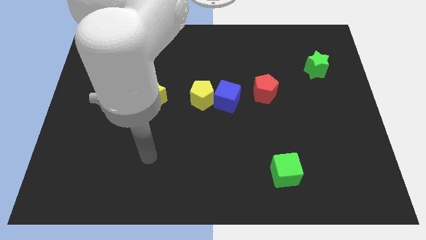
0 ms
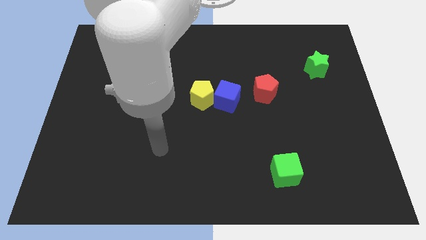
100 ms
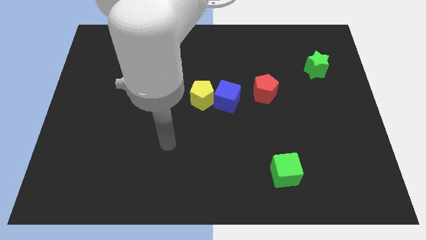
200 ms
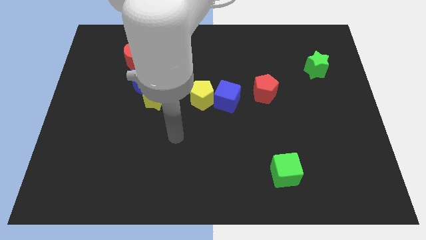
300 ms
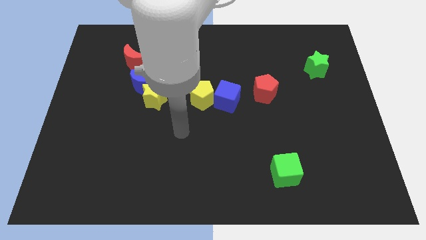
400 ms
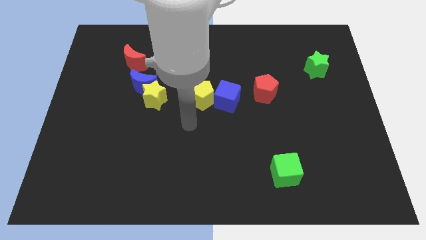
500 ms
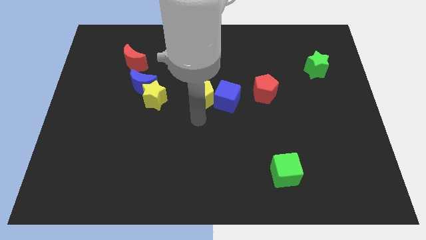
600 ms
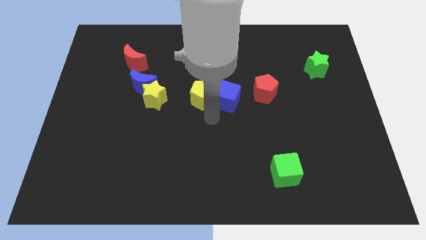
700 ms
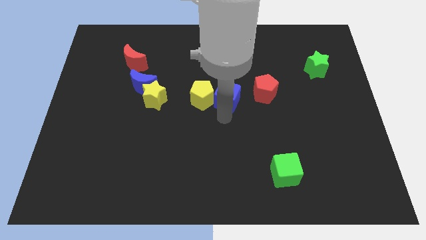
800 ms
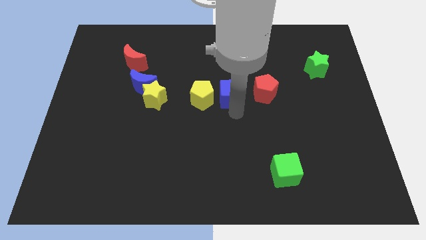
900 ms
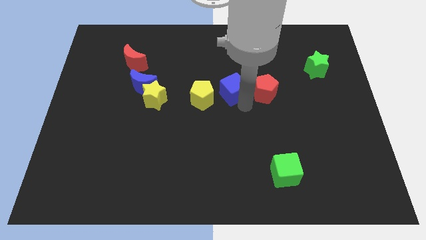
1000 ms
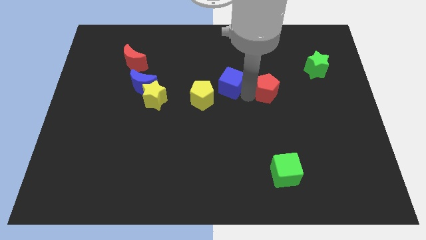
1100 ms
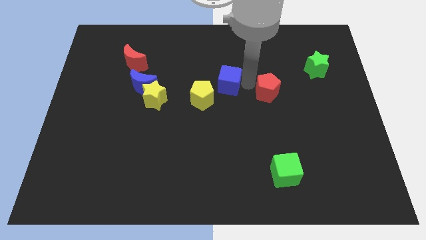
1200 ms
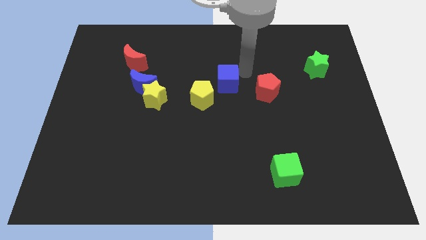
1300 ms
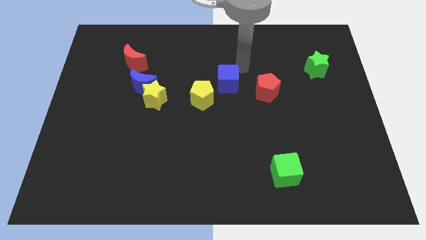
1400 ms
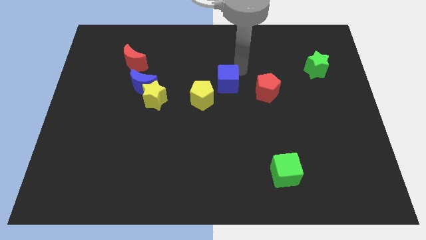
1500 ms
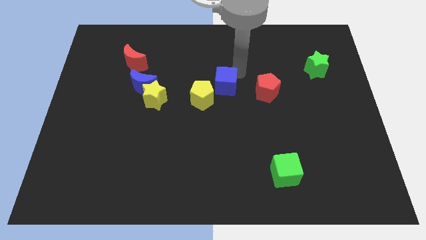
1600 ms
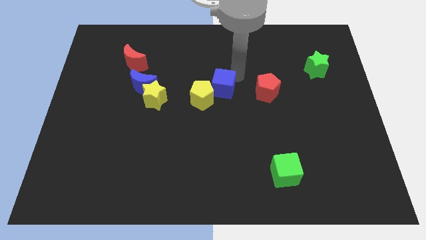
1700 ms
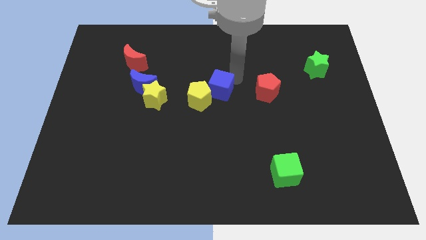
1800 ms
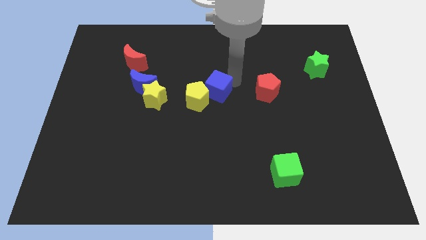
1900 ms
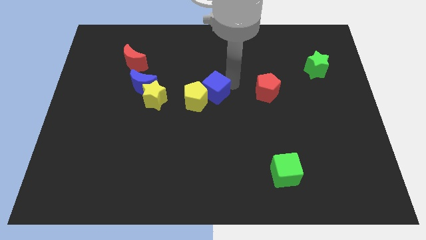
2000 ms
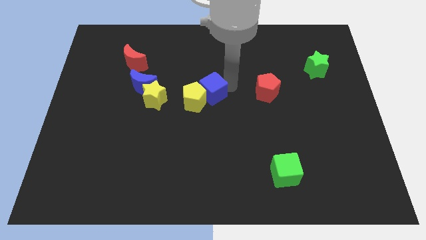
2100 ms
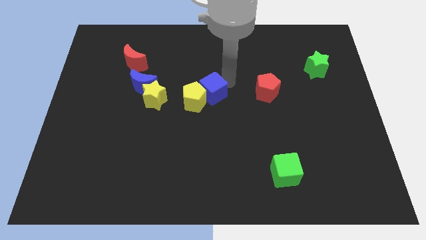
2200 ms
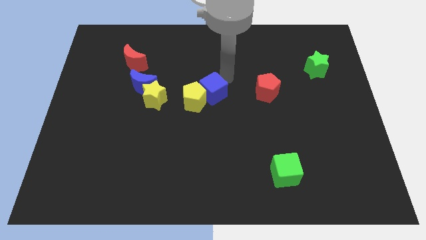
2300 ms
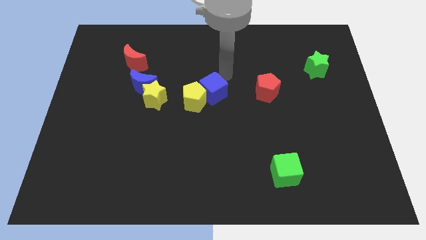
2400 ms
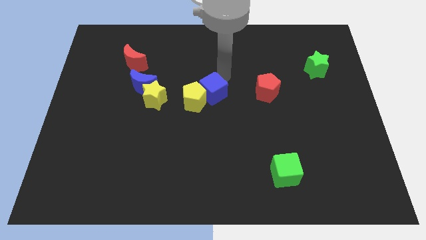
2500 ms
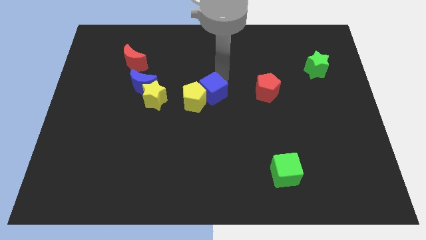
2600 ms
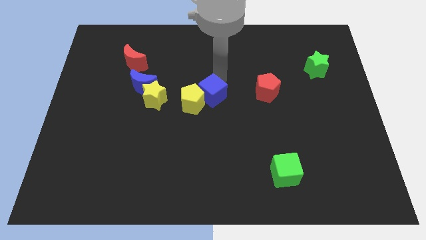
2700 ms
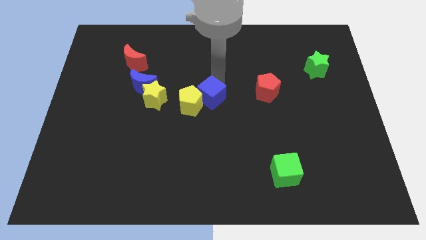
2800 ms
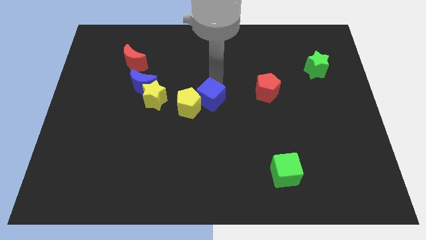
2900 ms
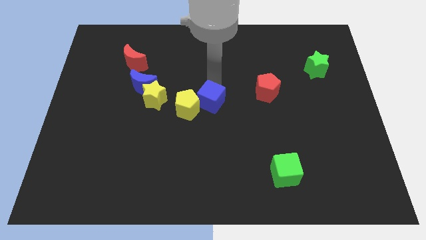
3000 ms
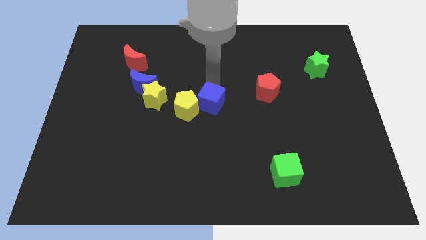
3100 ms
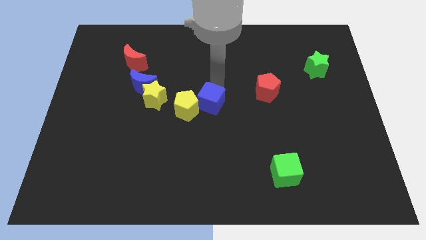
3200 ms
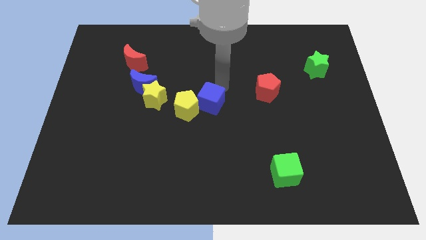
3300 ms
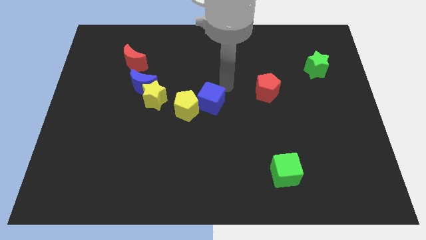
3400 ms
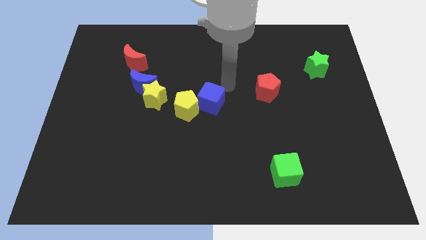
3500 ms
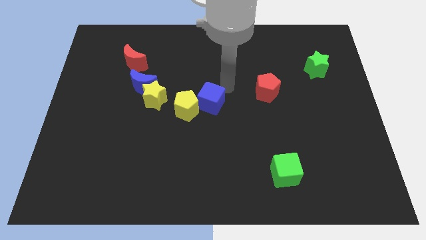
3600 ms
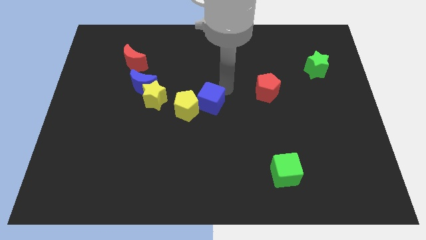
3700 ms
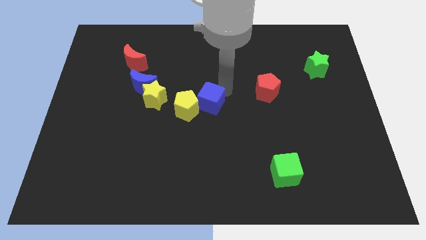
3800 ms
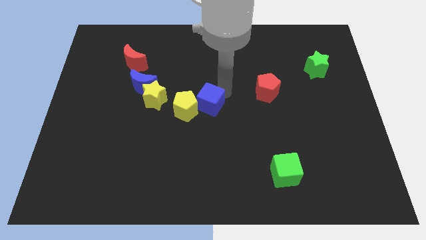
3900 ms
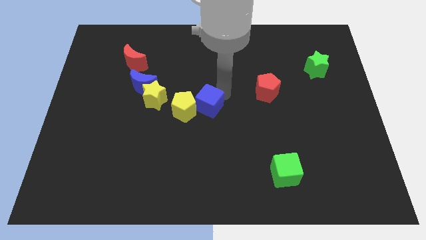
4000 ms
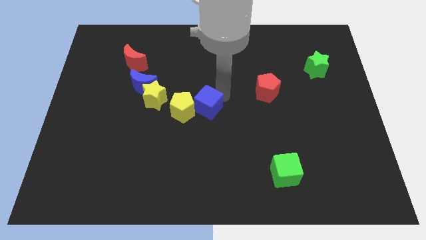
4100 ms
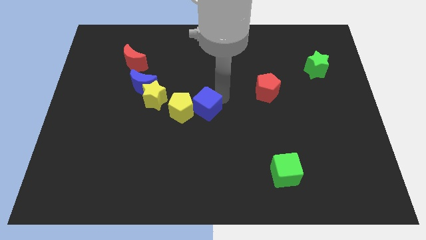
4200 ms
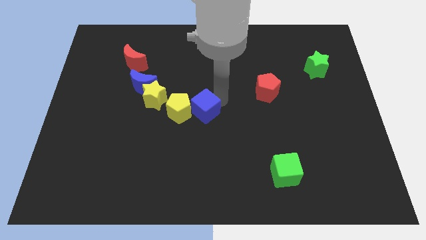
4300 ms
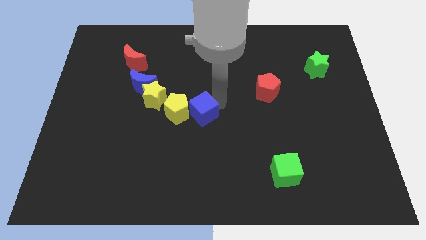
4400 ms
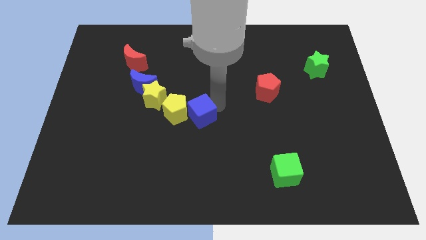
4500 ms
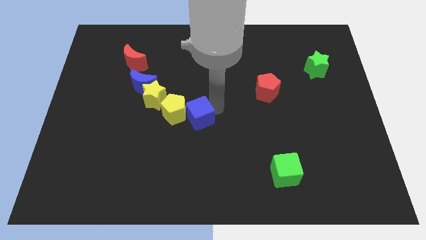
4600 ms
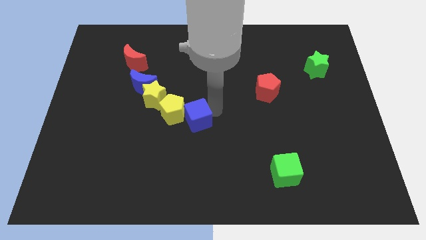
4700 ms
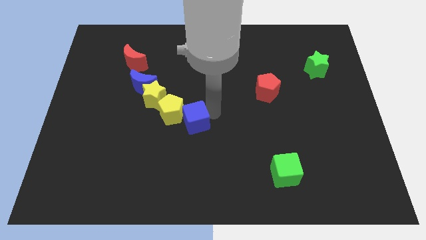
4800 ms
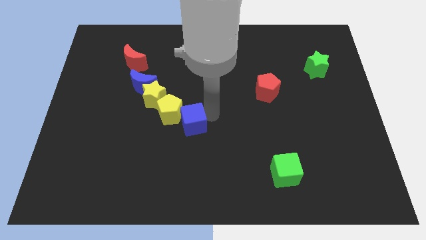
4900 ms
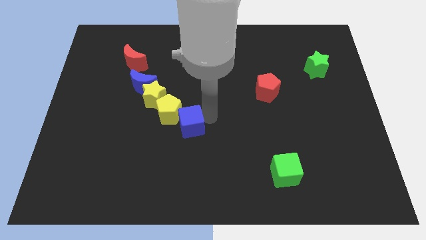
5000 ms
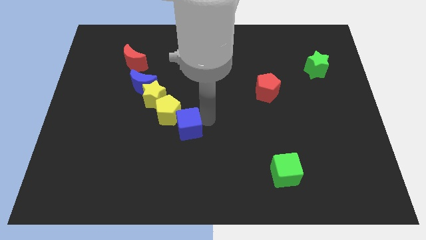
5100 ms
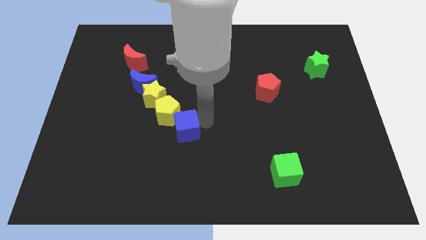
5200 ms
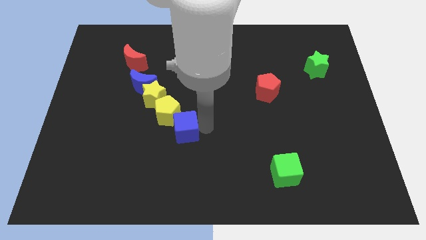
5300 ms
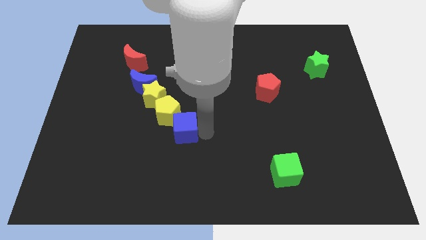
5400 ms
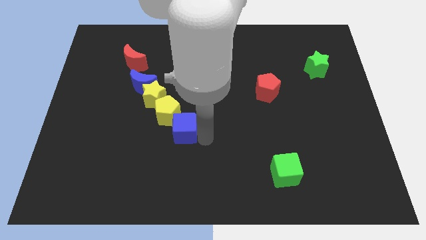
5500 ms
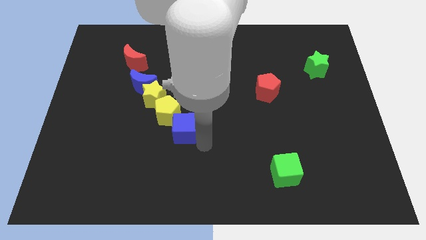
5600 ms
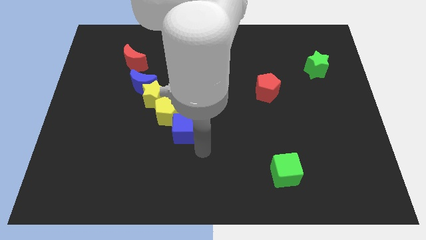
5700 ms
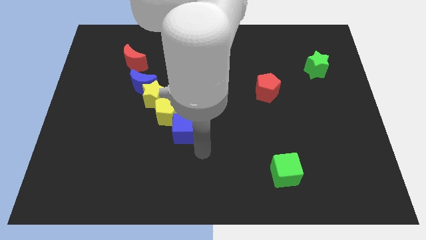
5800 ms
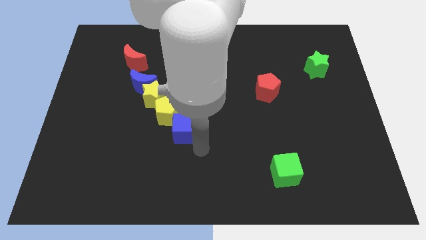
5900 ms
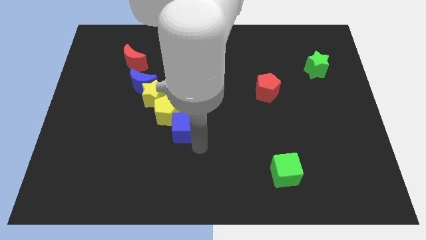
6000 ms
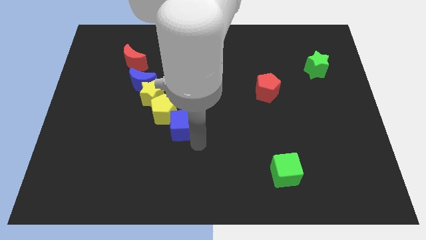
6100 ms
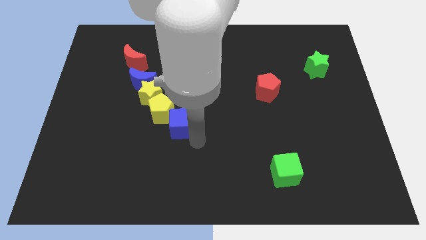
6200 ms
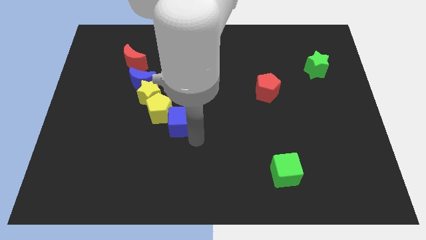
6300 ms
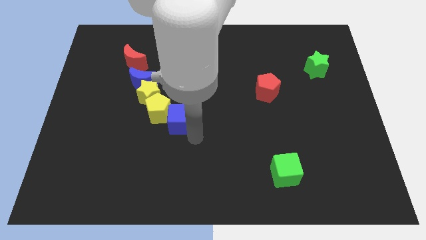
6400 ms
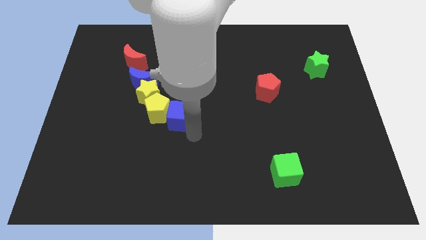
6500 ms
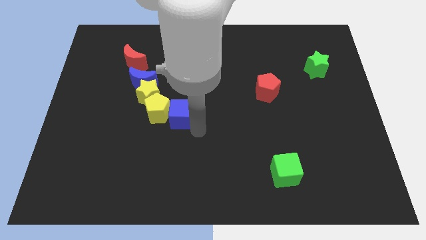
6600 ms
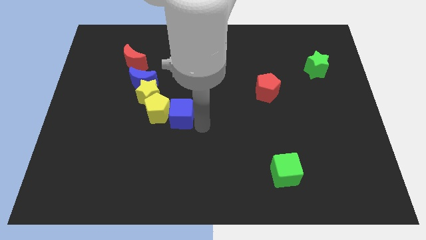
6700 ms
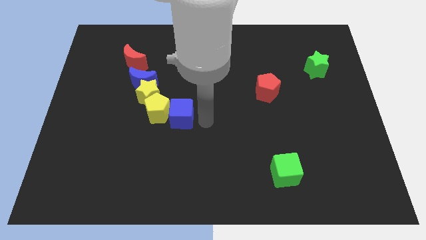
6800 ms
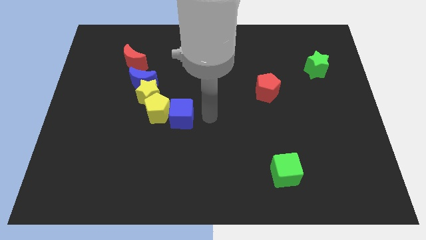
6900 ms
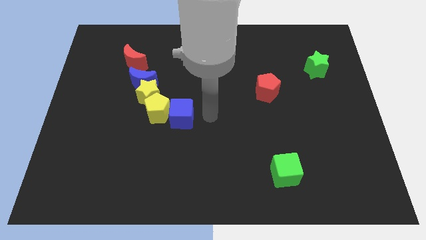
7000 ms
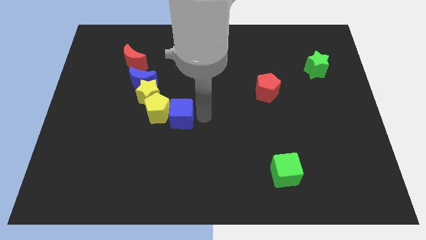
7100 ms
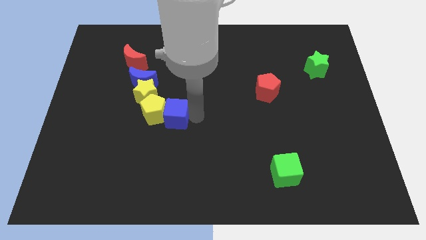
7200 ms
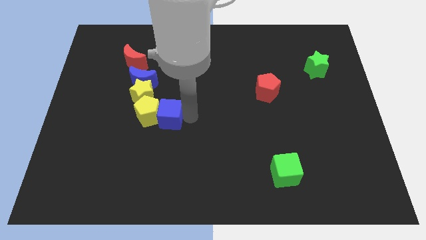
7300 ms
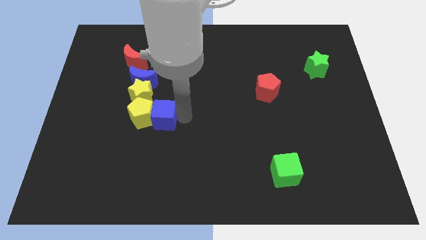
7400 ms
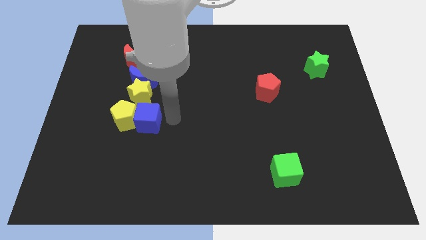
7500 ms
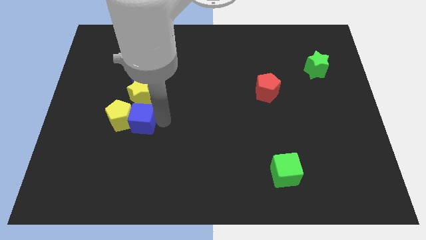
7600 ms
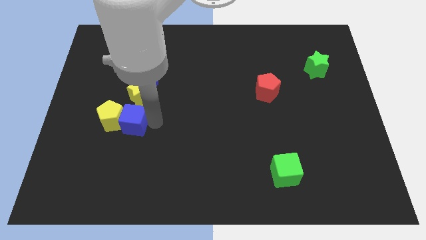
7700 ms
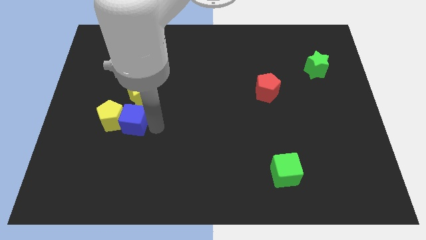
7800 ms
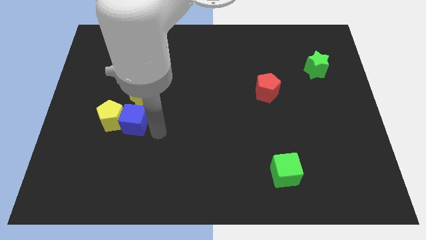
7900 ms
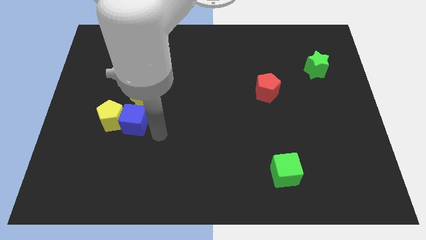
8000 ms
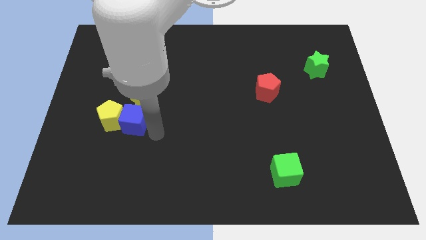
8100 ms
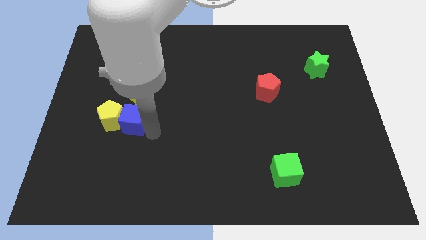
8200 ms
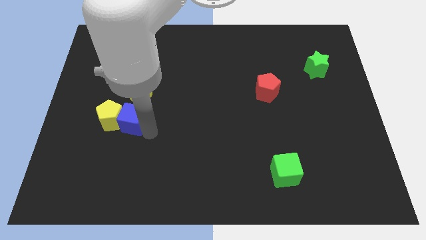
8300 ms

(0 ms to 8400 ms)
move the blue cube diagonally down and to the left of the yellow star
